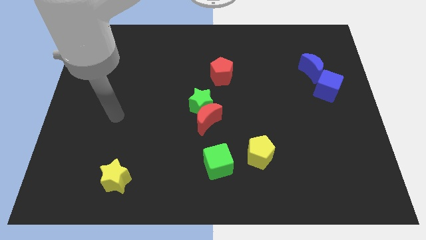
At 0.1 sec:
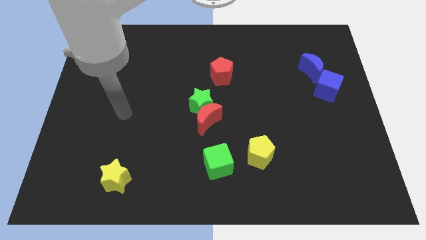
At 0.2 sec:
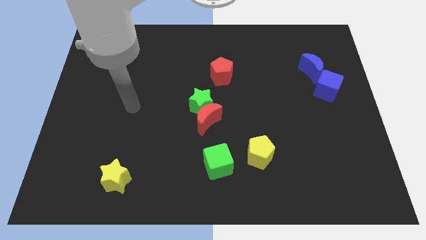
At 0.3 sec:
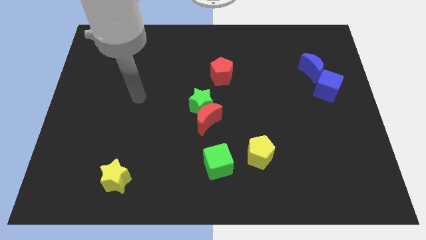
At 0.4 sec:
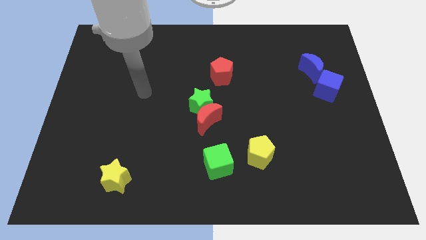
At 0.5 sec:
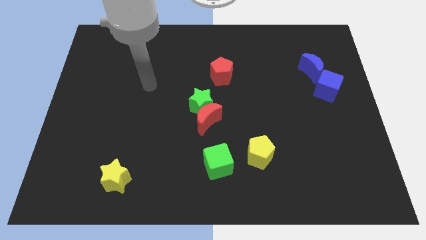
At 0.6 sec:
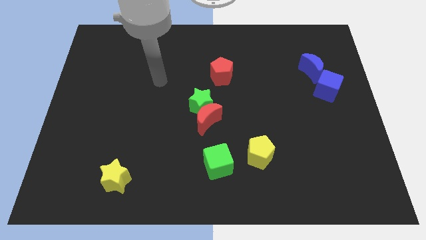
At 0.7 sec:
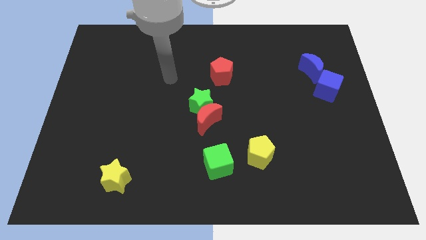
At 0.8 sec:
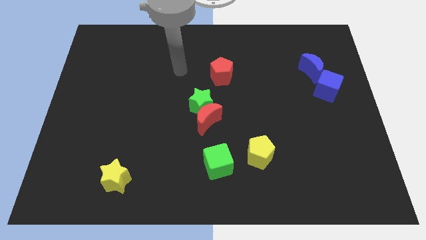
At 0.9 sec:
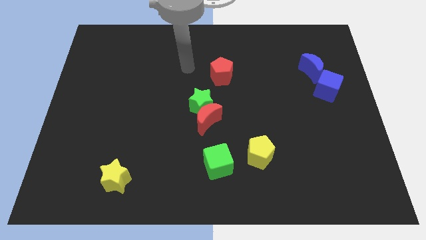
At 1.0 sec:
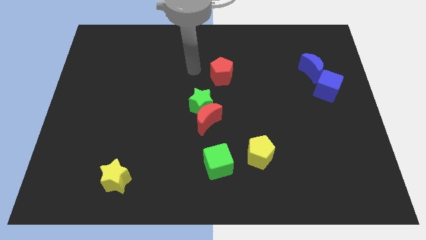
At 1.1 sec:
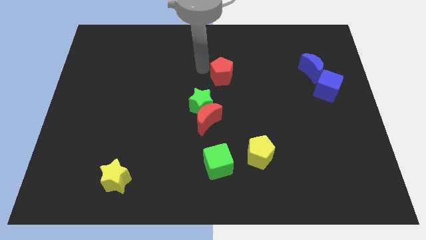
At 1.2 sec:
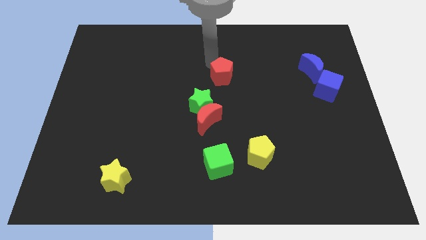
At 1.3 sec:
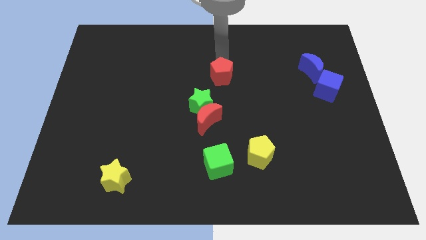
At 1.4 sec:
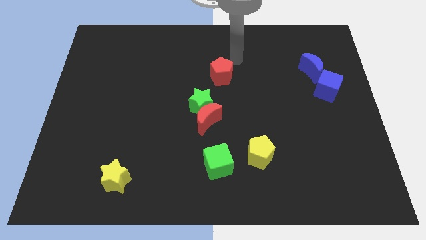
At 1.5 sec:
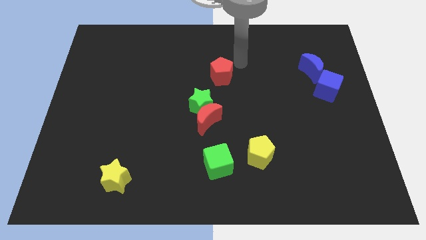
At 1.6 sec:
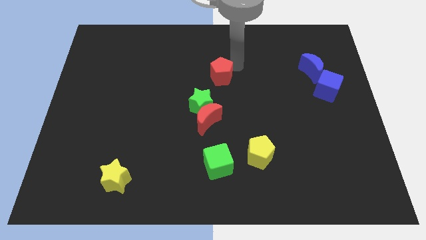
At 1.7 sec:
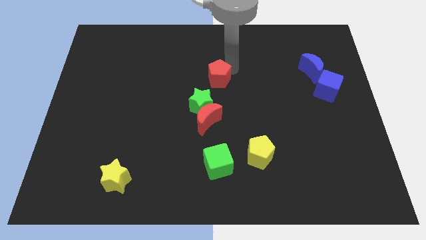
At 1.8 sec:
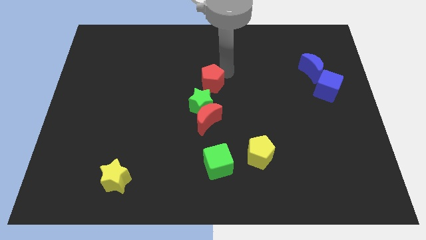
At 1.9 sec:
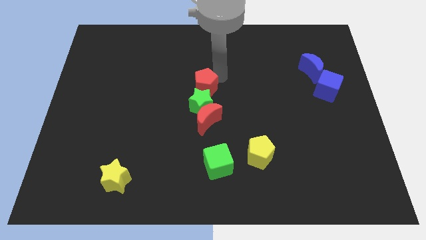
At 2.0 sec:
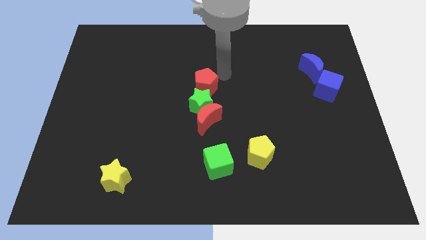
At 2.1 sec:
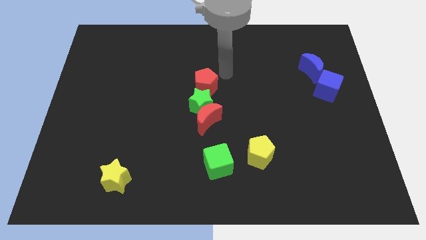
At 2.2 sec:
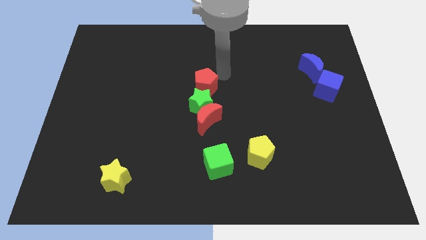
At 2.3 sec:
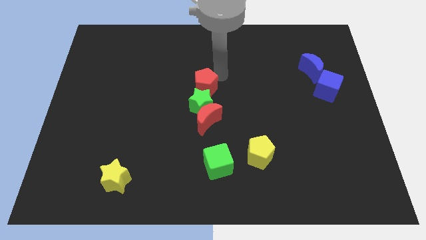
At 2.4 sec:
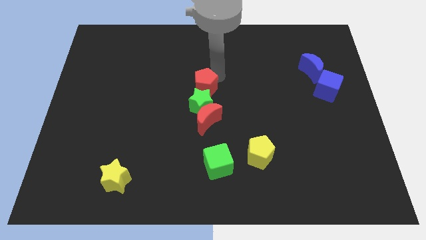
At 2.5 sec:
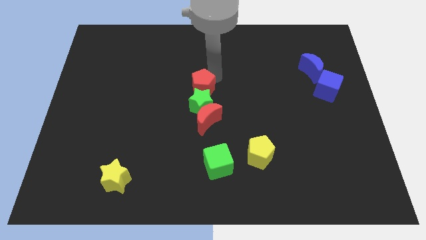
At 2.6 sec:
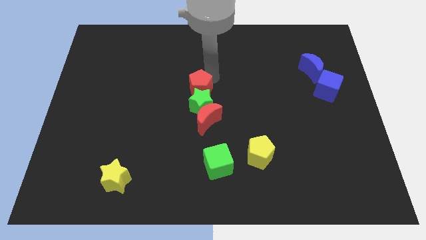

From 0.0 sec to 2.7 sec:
slightly push the red pentagon downwards and to the left

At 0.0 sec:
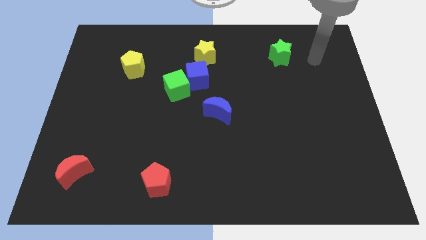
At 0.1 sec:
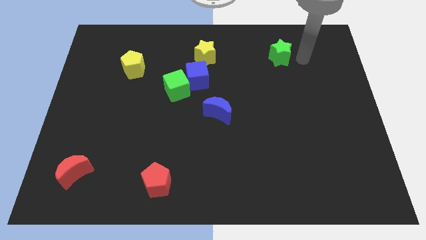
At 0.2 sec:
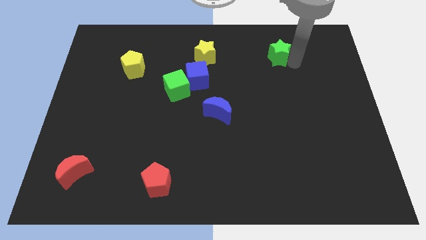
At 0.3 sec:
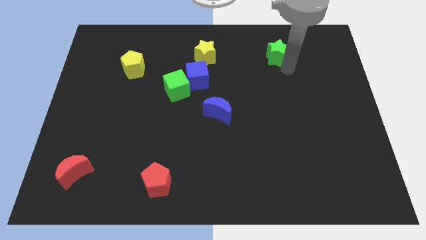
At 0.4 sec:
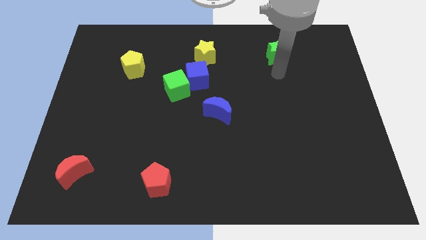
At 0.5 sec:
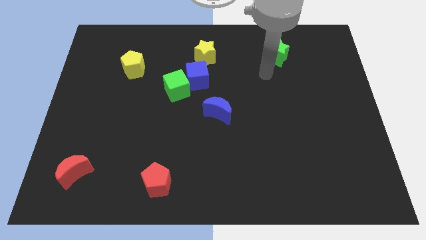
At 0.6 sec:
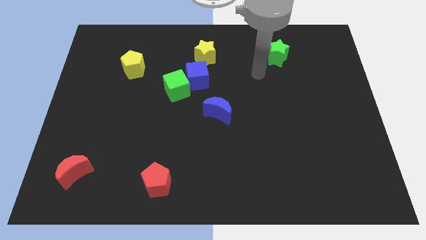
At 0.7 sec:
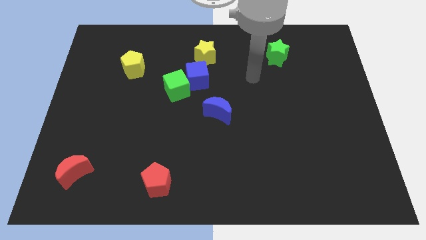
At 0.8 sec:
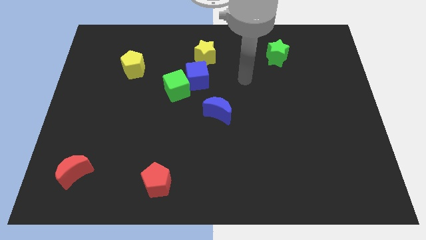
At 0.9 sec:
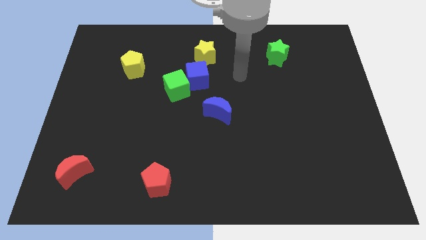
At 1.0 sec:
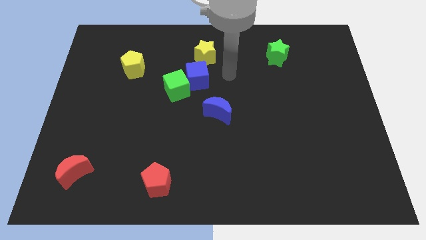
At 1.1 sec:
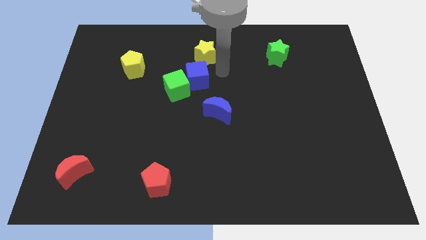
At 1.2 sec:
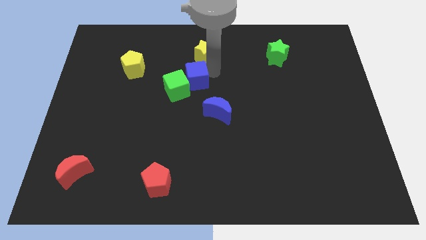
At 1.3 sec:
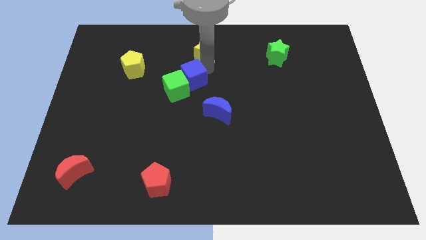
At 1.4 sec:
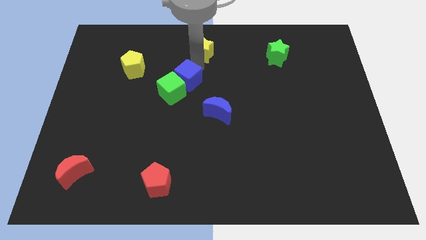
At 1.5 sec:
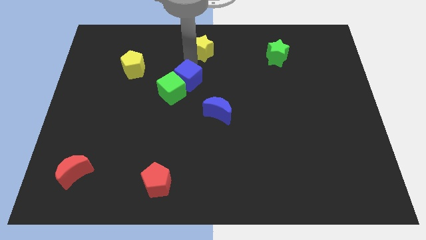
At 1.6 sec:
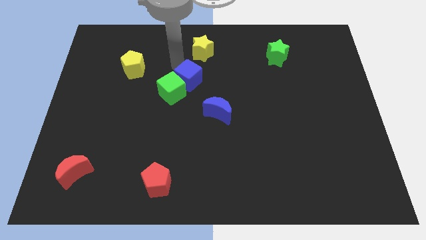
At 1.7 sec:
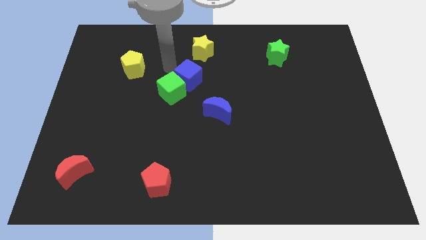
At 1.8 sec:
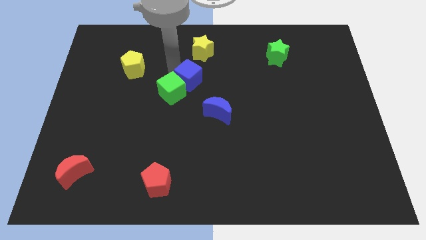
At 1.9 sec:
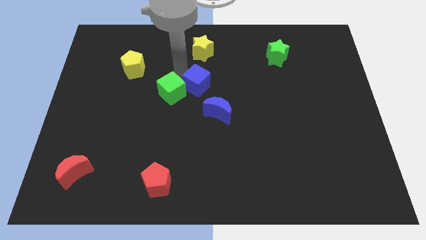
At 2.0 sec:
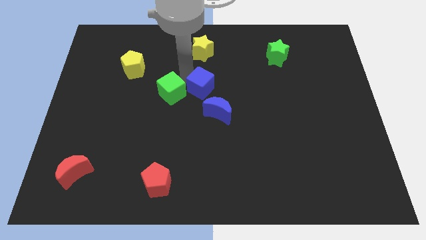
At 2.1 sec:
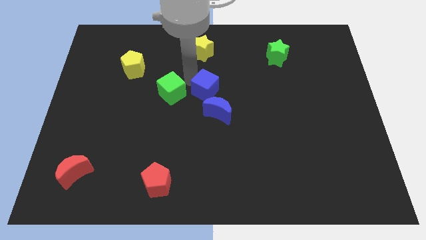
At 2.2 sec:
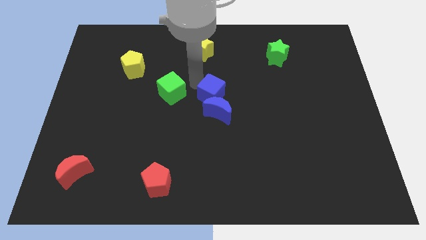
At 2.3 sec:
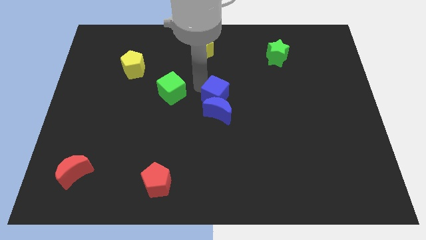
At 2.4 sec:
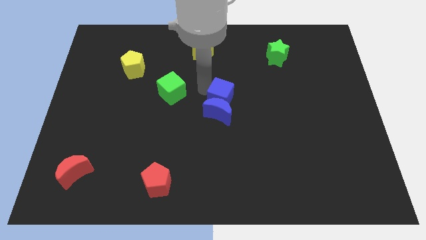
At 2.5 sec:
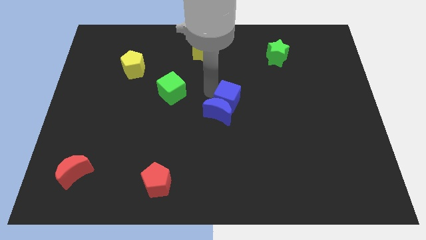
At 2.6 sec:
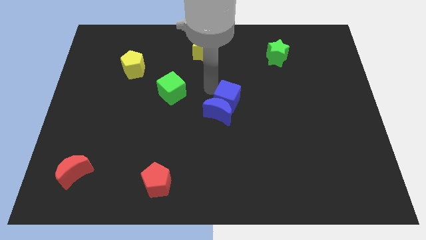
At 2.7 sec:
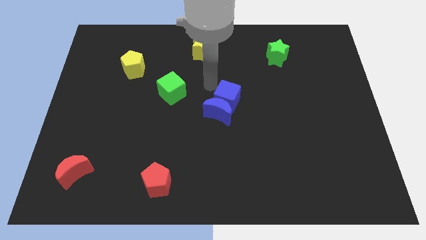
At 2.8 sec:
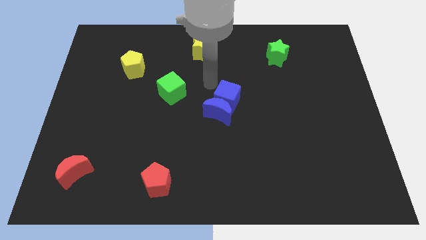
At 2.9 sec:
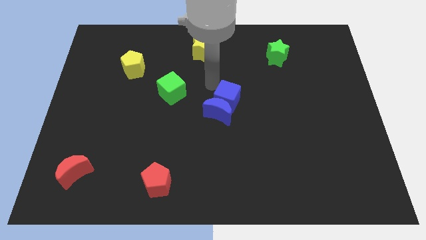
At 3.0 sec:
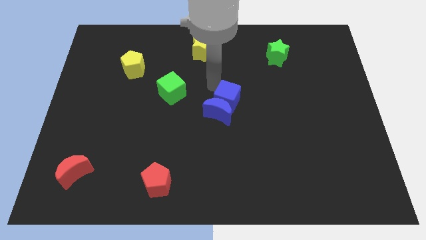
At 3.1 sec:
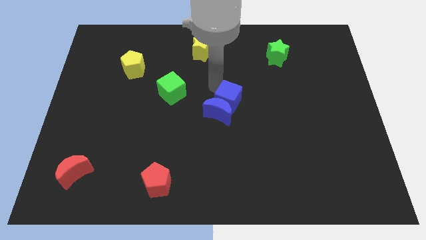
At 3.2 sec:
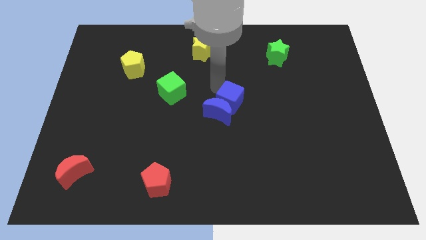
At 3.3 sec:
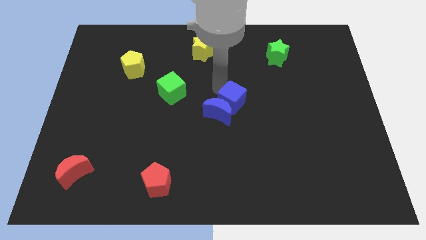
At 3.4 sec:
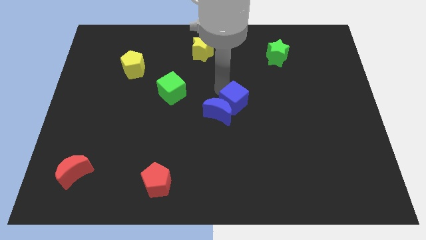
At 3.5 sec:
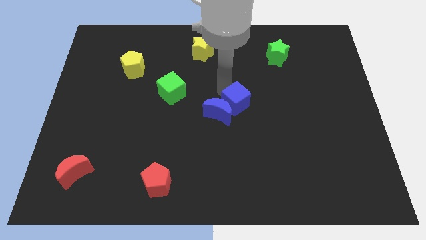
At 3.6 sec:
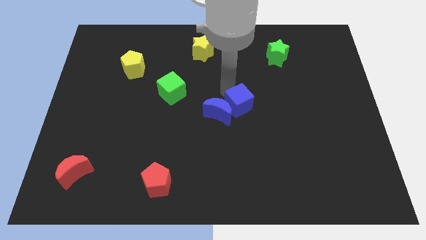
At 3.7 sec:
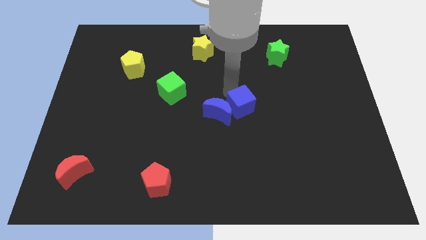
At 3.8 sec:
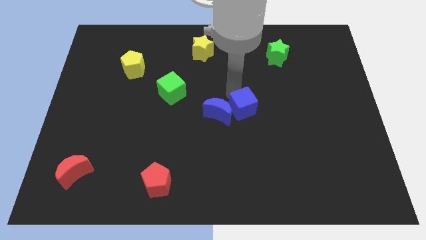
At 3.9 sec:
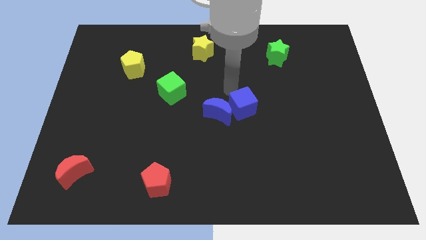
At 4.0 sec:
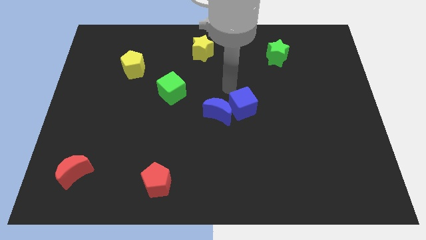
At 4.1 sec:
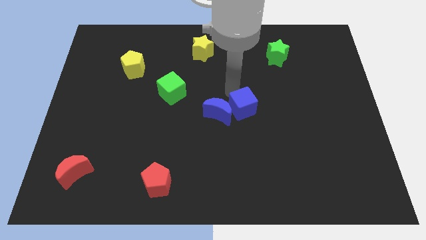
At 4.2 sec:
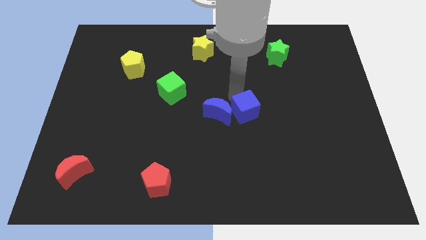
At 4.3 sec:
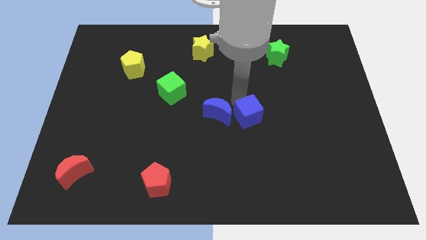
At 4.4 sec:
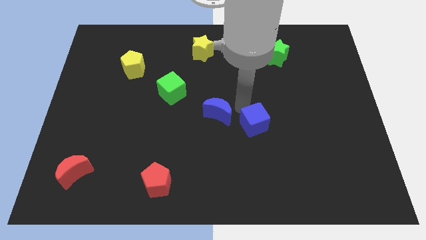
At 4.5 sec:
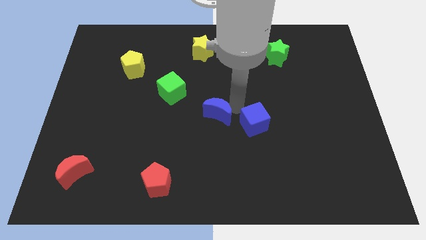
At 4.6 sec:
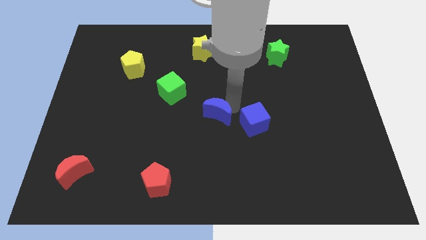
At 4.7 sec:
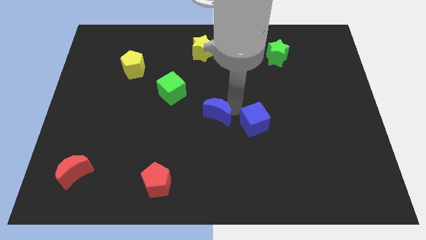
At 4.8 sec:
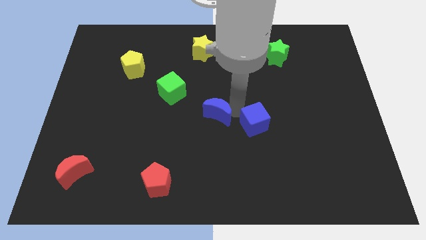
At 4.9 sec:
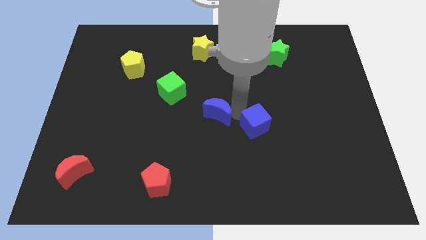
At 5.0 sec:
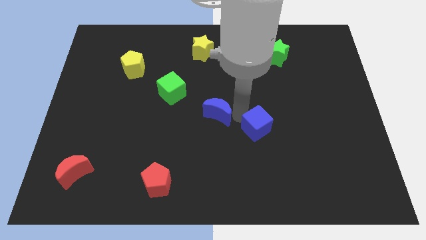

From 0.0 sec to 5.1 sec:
push the blue cube downwards and to the right diagonally

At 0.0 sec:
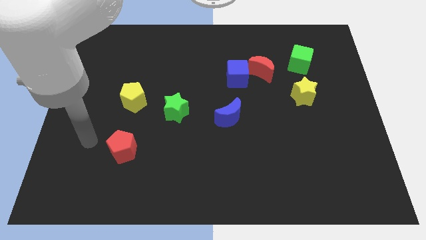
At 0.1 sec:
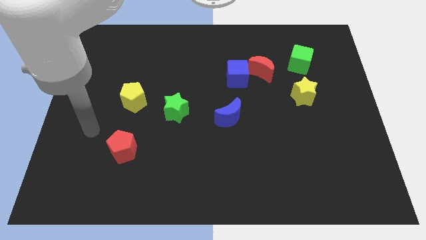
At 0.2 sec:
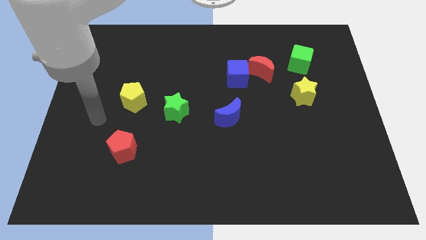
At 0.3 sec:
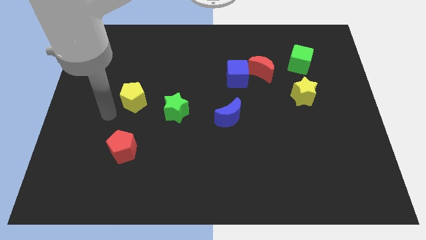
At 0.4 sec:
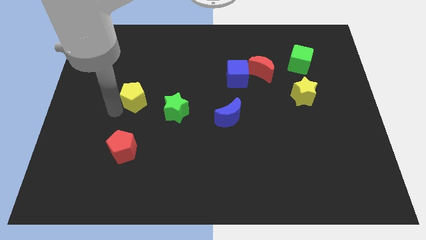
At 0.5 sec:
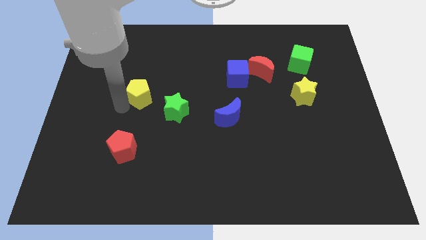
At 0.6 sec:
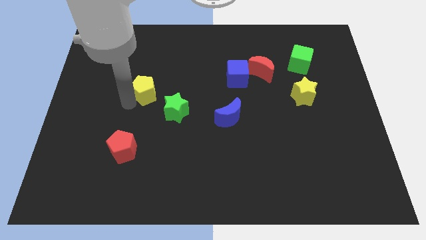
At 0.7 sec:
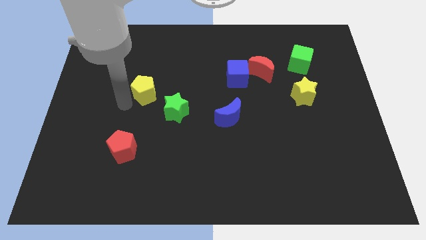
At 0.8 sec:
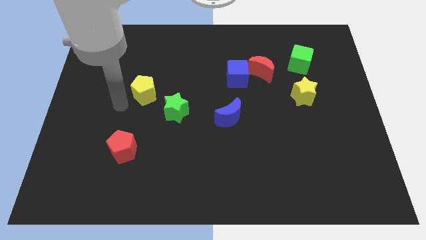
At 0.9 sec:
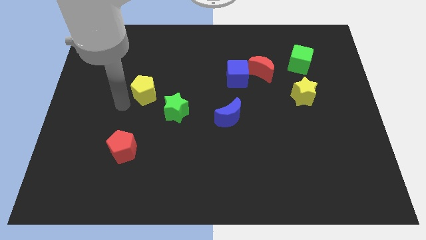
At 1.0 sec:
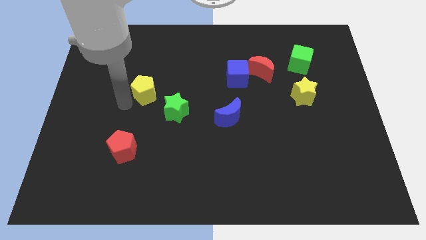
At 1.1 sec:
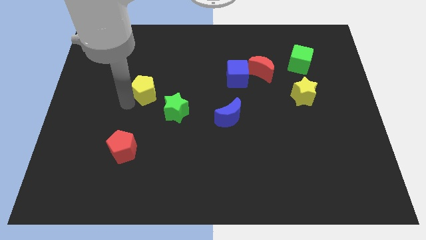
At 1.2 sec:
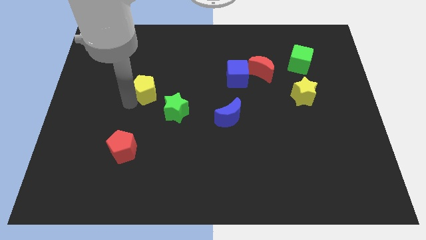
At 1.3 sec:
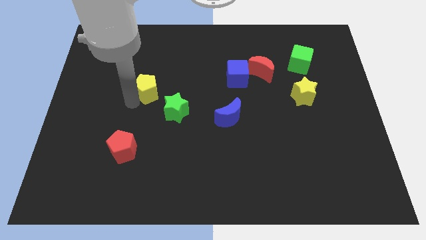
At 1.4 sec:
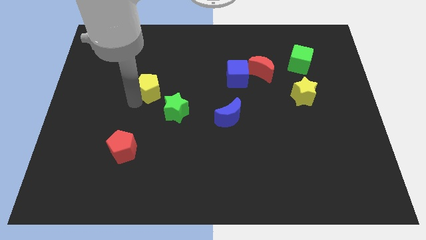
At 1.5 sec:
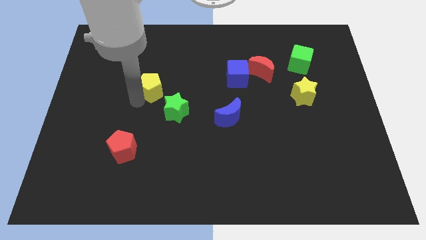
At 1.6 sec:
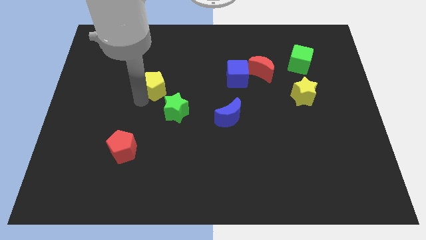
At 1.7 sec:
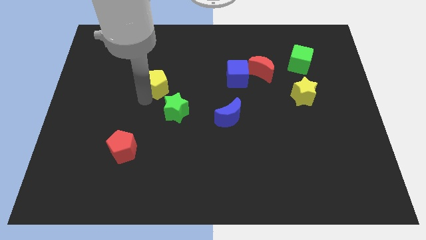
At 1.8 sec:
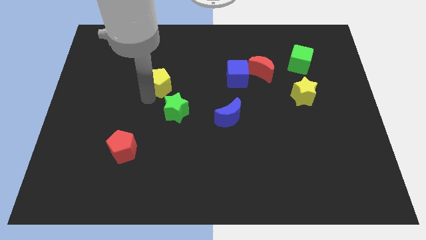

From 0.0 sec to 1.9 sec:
slightly move the yellow pentagon up and then to the right
